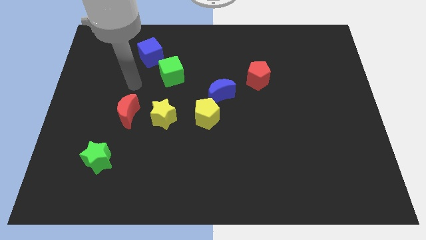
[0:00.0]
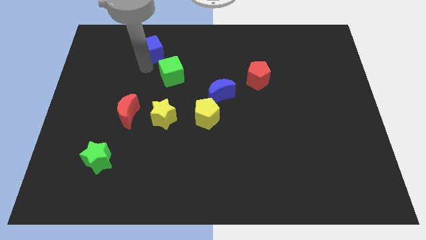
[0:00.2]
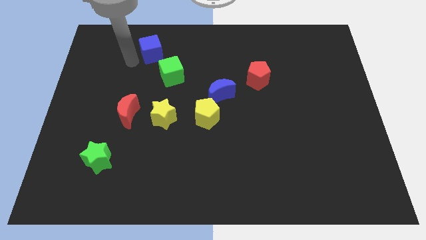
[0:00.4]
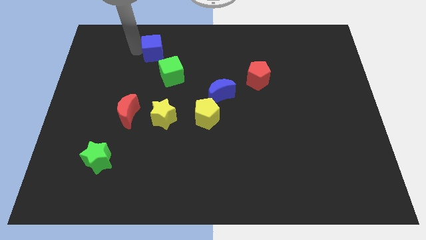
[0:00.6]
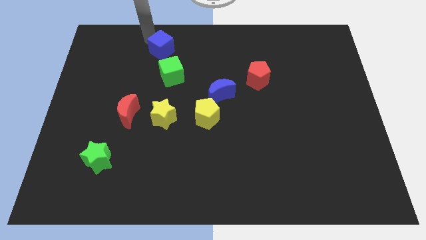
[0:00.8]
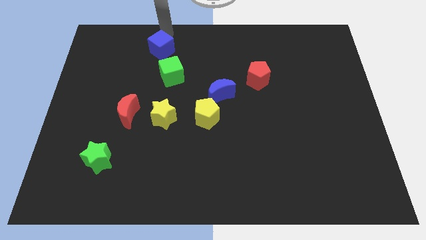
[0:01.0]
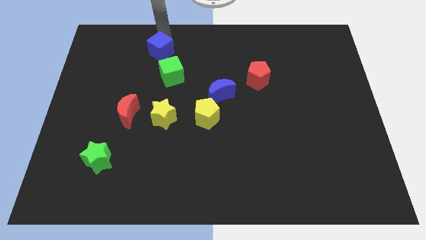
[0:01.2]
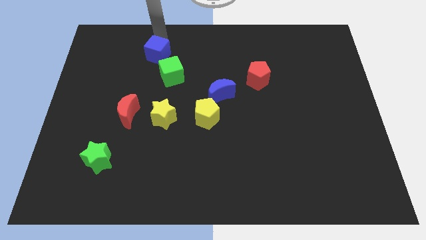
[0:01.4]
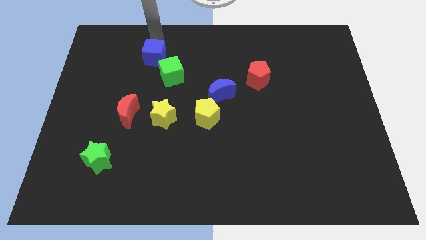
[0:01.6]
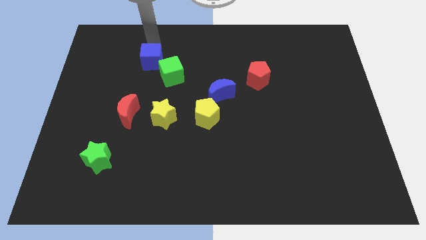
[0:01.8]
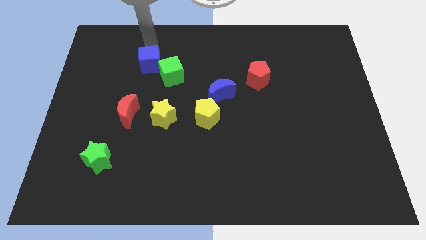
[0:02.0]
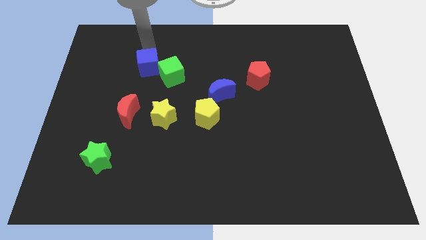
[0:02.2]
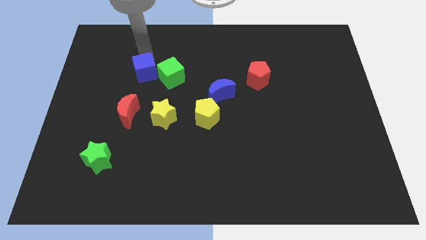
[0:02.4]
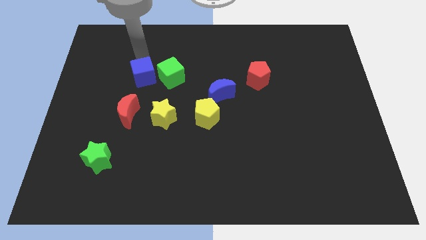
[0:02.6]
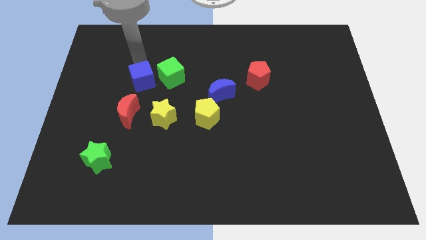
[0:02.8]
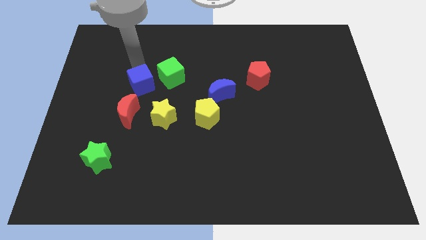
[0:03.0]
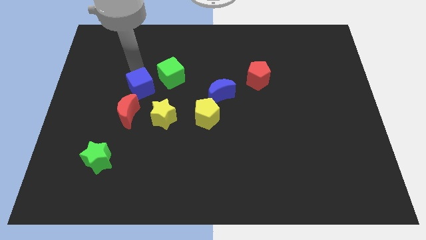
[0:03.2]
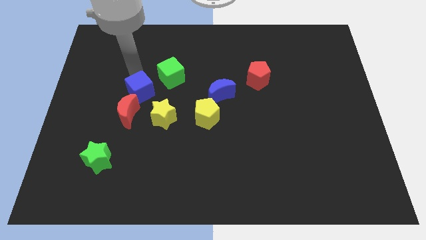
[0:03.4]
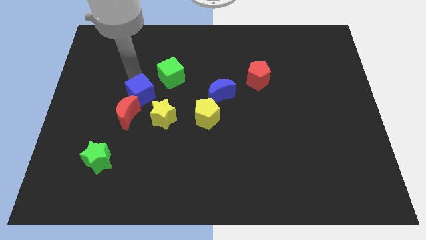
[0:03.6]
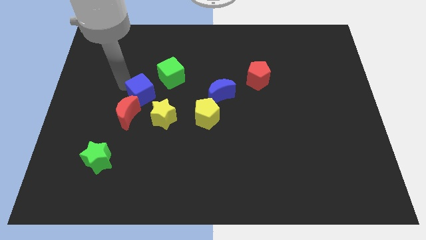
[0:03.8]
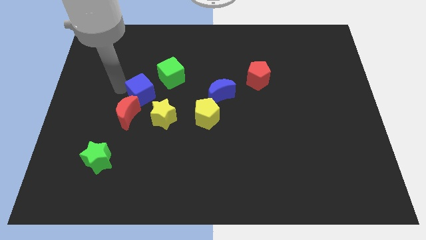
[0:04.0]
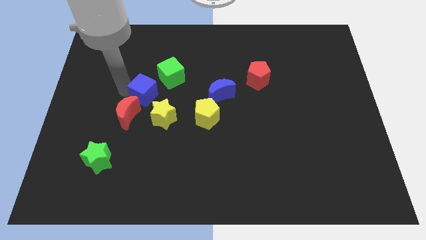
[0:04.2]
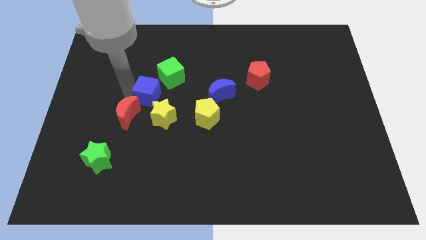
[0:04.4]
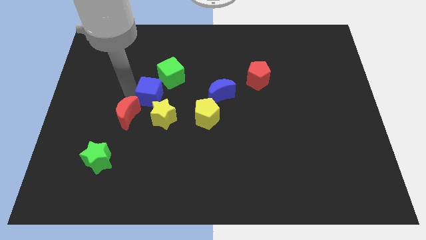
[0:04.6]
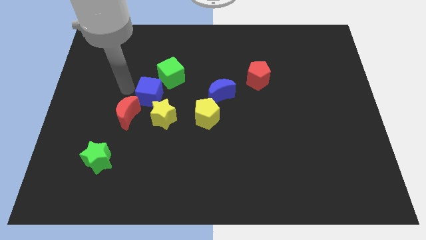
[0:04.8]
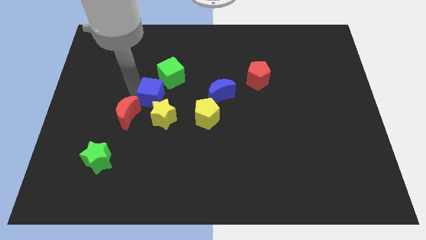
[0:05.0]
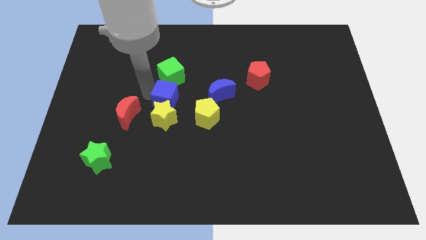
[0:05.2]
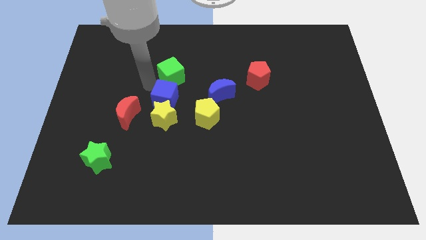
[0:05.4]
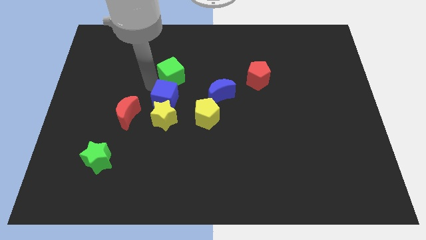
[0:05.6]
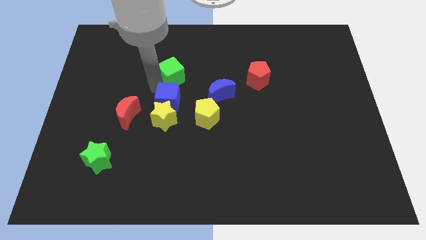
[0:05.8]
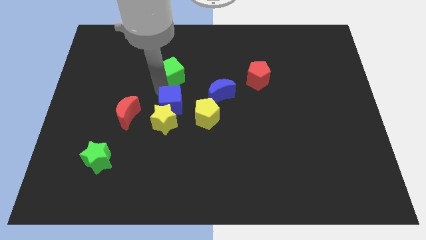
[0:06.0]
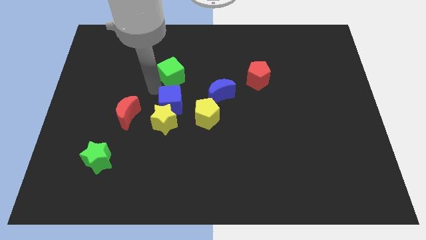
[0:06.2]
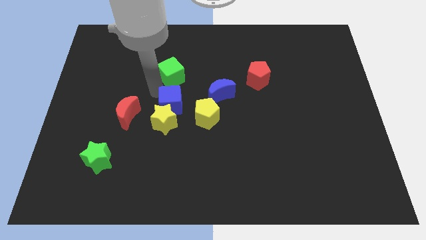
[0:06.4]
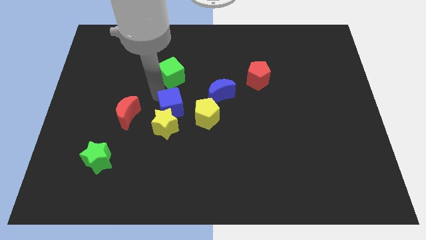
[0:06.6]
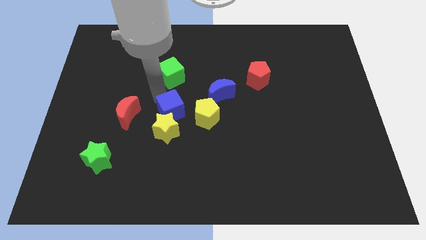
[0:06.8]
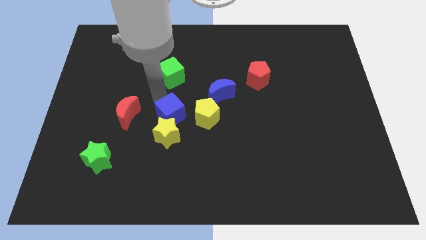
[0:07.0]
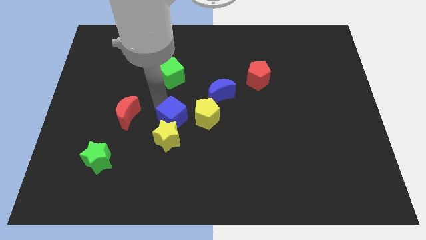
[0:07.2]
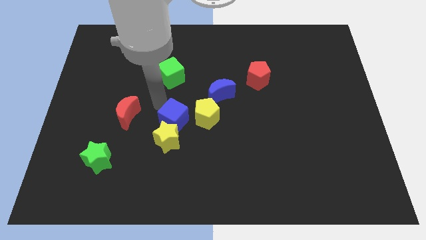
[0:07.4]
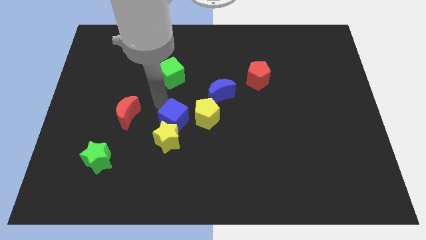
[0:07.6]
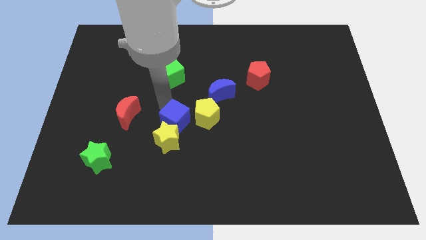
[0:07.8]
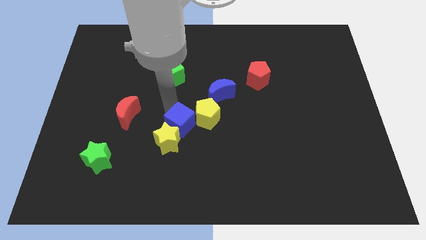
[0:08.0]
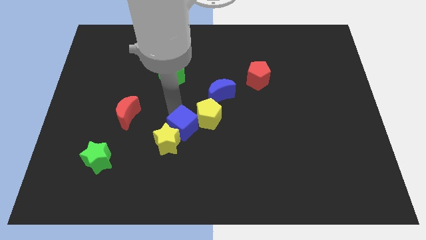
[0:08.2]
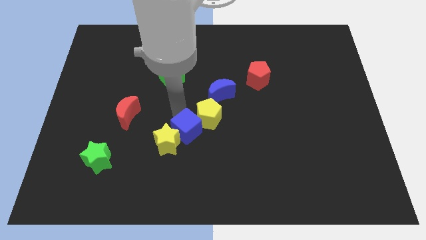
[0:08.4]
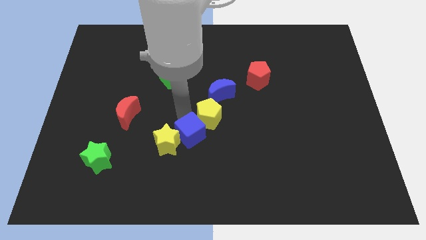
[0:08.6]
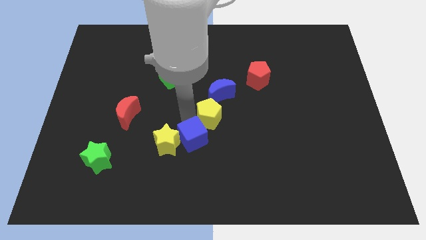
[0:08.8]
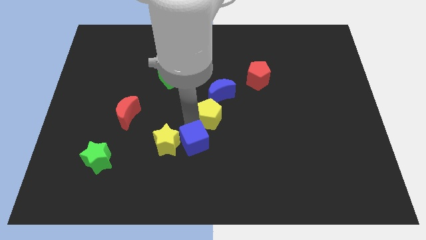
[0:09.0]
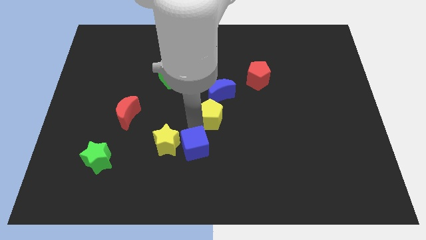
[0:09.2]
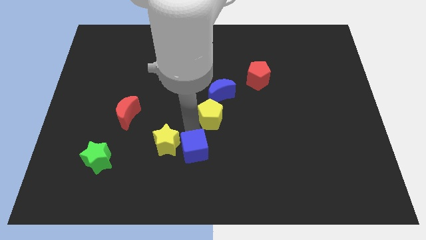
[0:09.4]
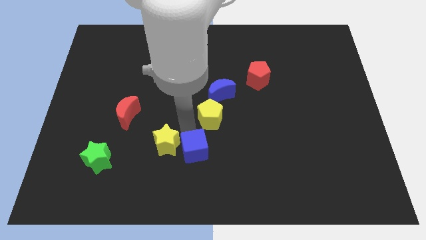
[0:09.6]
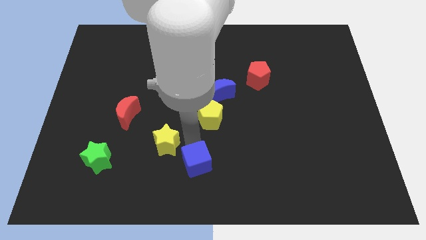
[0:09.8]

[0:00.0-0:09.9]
push the blue cube to the bottom

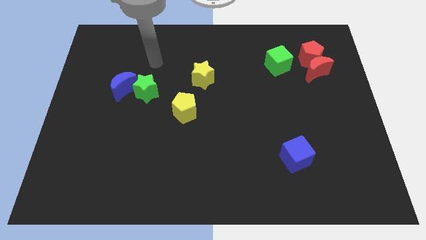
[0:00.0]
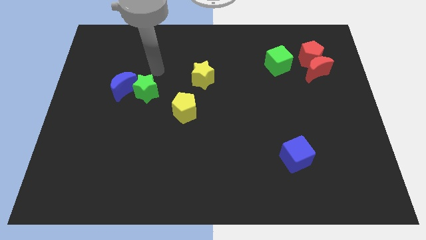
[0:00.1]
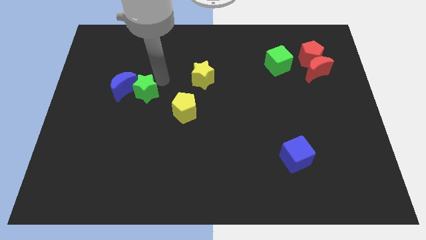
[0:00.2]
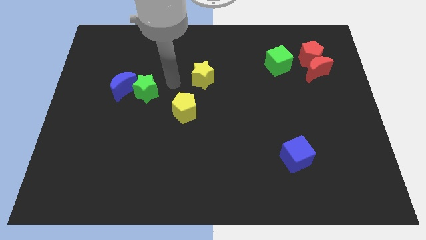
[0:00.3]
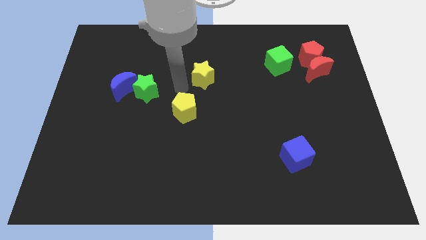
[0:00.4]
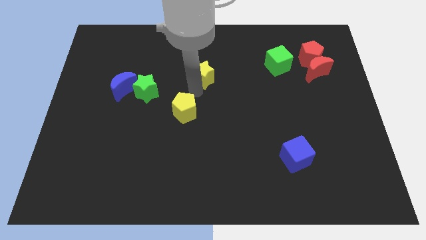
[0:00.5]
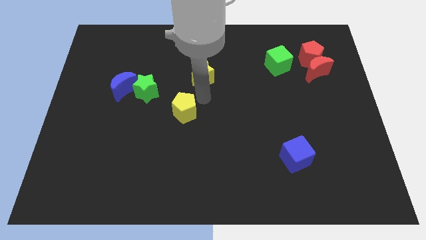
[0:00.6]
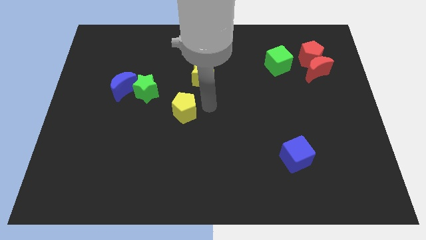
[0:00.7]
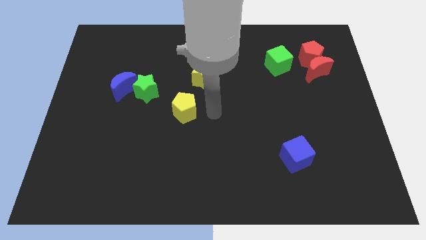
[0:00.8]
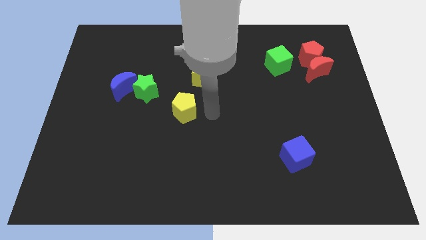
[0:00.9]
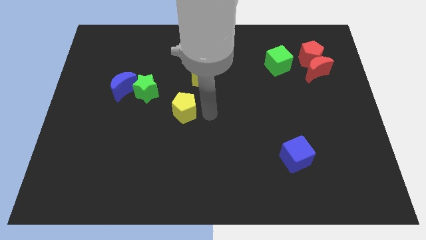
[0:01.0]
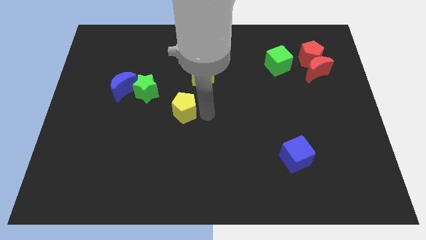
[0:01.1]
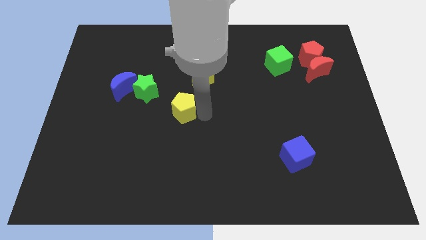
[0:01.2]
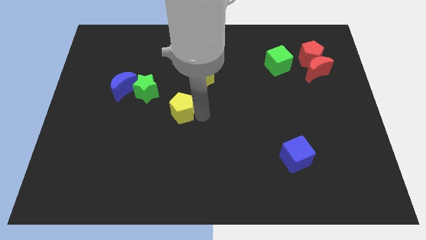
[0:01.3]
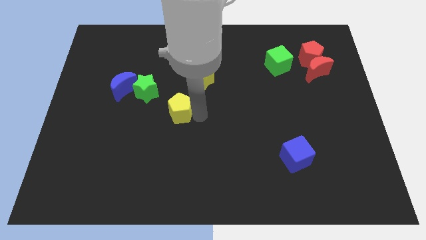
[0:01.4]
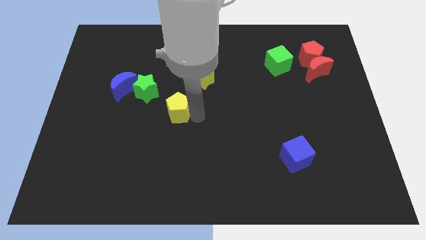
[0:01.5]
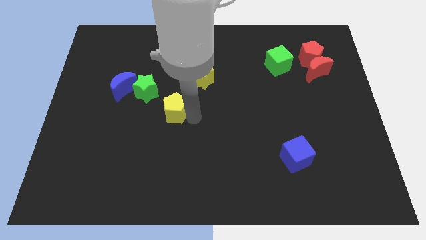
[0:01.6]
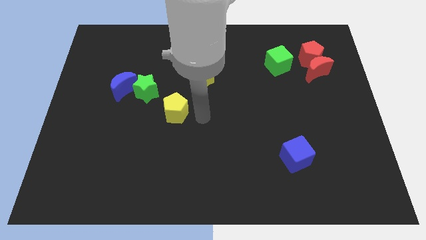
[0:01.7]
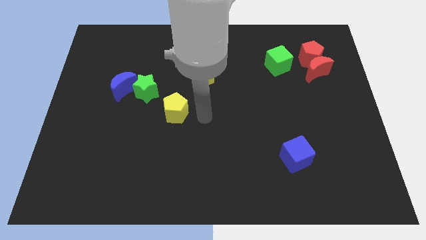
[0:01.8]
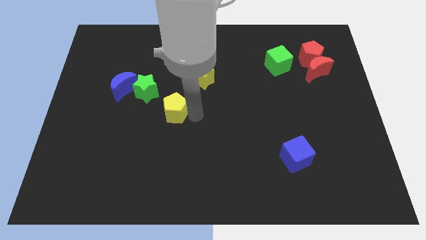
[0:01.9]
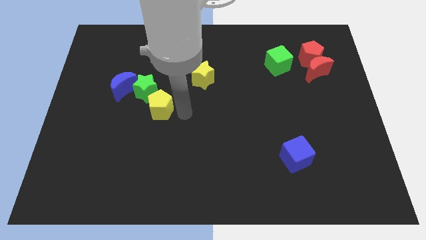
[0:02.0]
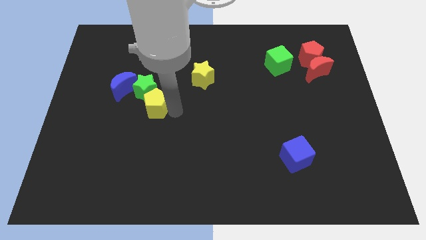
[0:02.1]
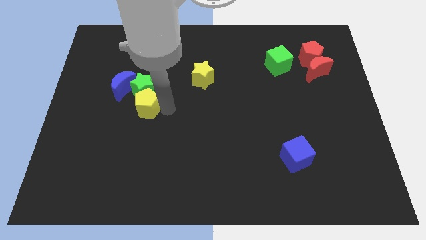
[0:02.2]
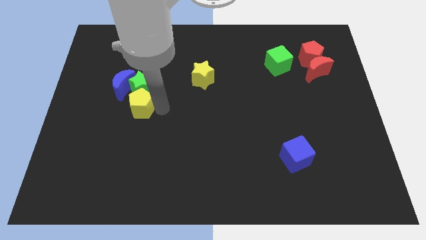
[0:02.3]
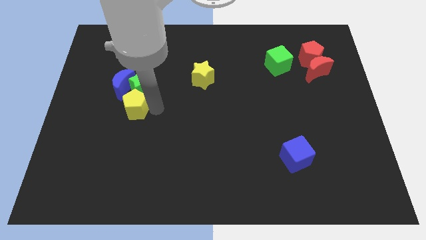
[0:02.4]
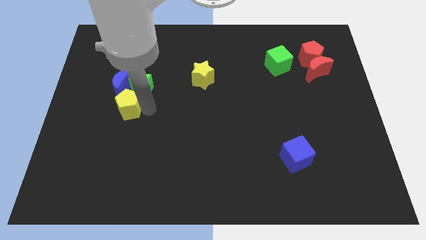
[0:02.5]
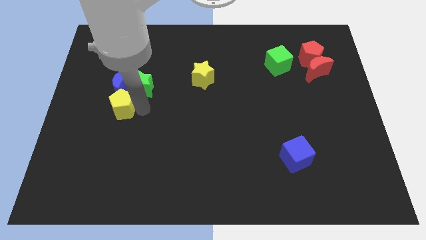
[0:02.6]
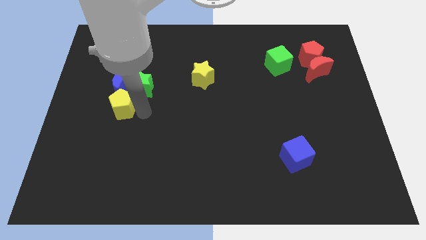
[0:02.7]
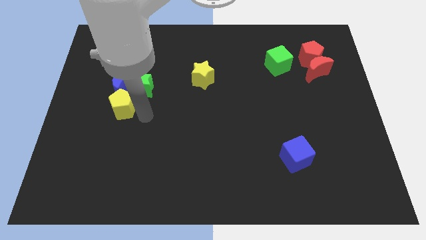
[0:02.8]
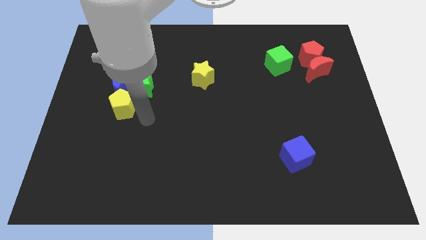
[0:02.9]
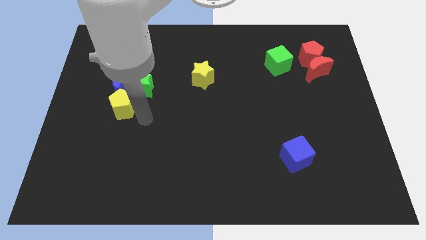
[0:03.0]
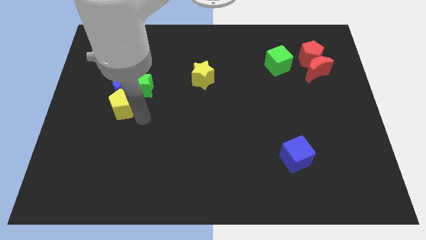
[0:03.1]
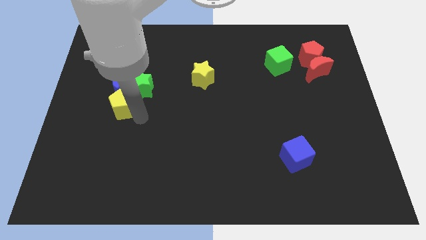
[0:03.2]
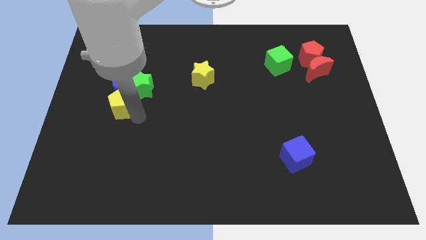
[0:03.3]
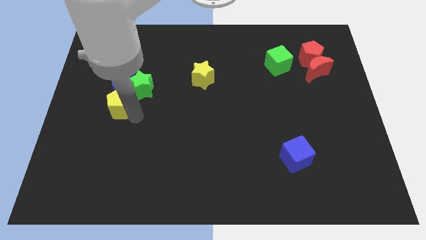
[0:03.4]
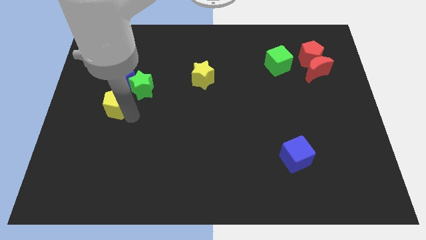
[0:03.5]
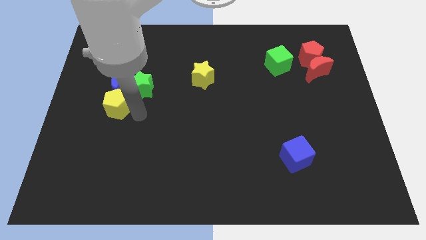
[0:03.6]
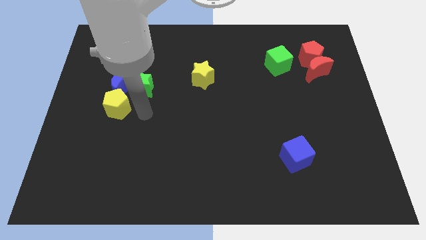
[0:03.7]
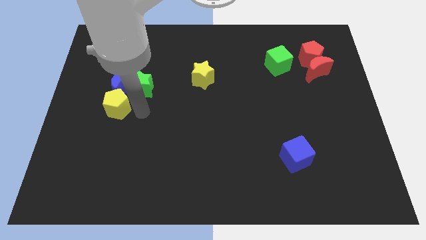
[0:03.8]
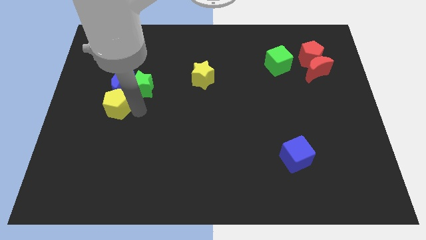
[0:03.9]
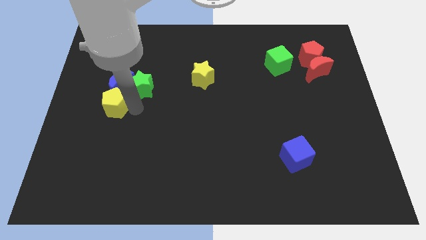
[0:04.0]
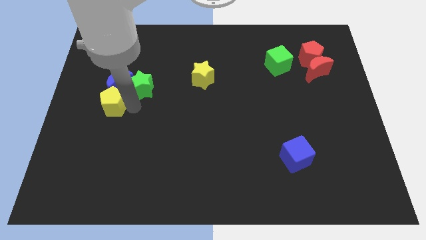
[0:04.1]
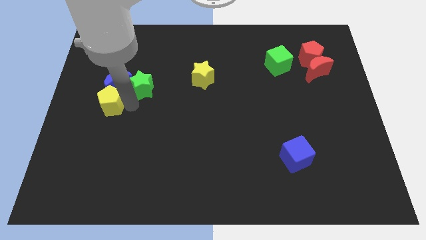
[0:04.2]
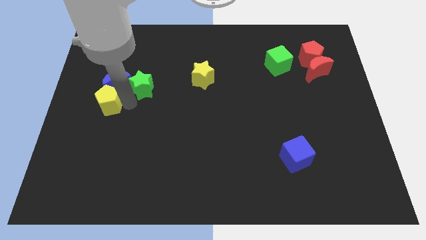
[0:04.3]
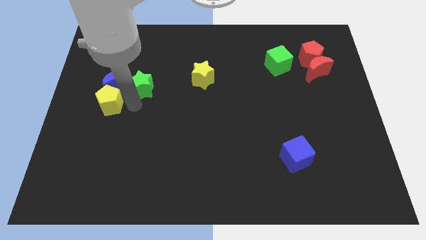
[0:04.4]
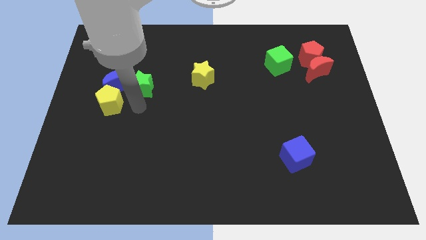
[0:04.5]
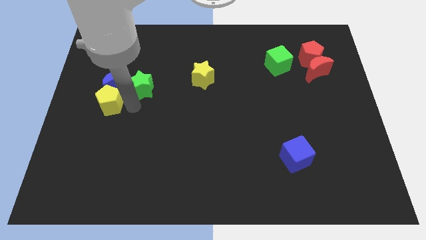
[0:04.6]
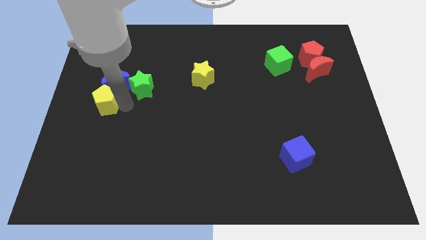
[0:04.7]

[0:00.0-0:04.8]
put the yellow pentagon to the center left
